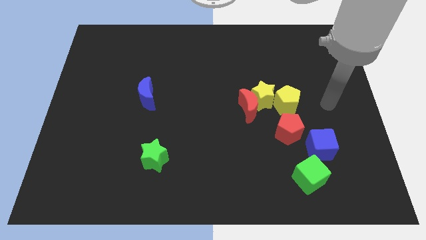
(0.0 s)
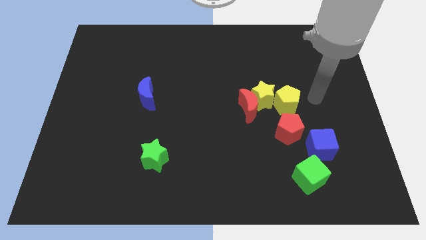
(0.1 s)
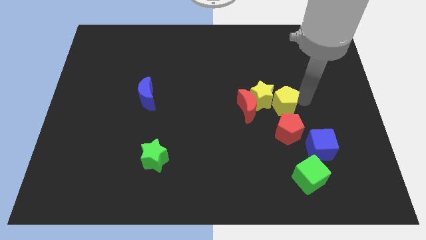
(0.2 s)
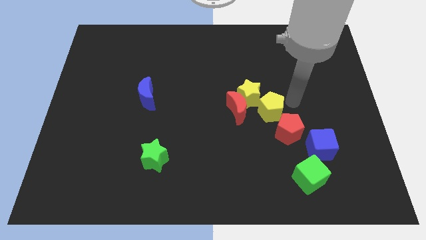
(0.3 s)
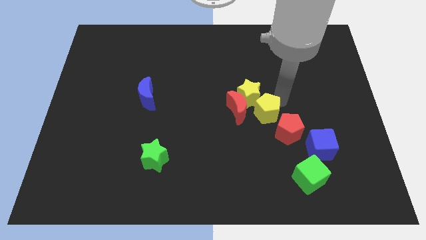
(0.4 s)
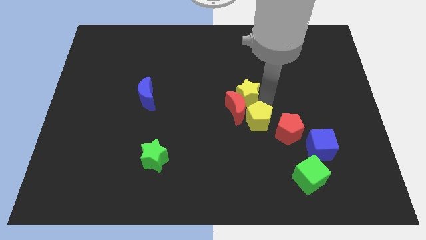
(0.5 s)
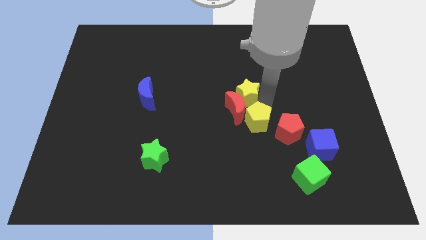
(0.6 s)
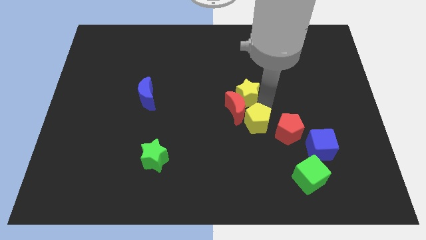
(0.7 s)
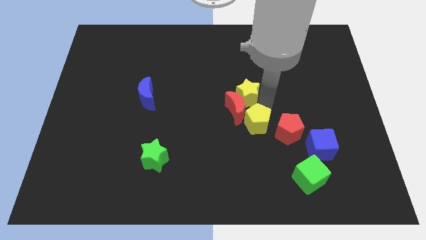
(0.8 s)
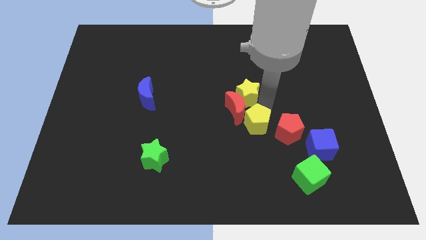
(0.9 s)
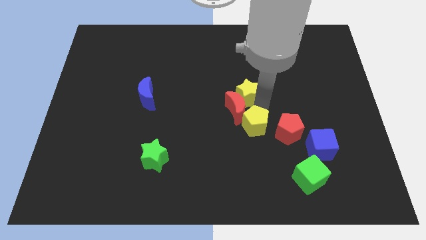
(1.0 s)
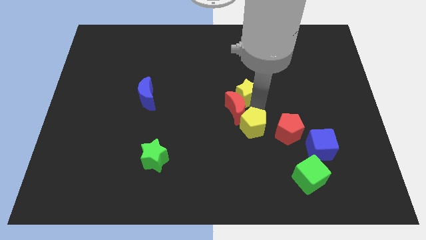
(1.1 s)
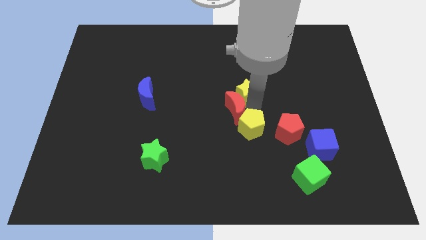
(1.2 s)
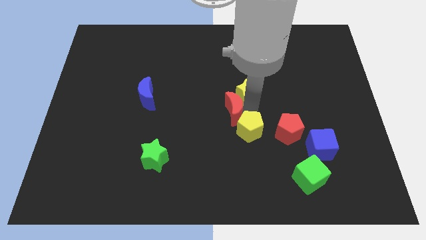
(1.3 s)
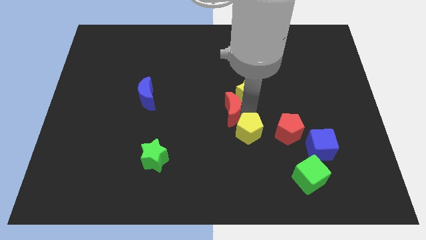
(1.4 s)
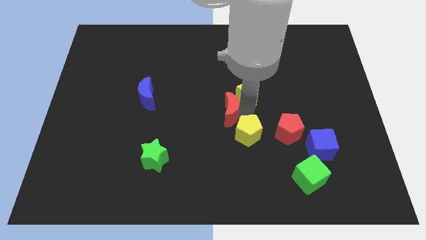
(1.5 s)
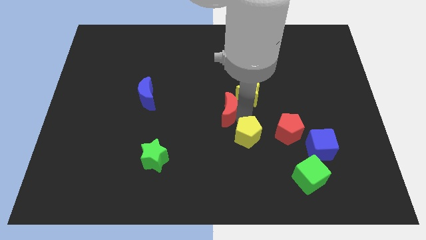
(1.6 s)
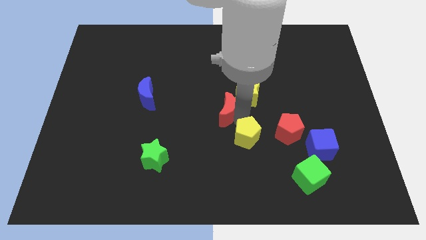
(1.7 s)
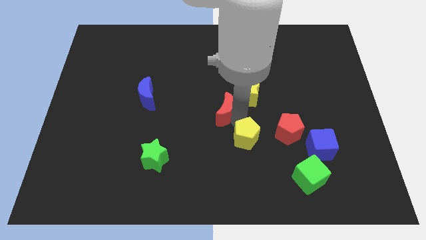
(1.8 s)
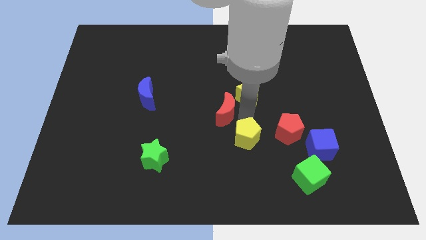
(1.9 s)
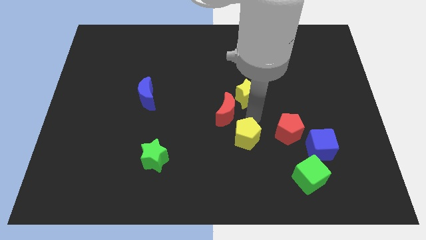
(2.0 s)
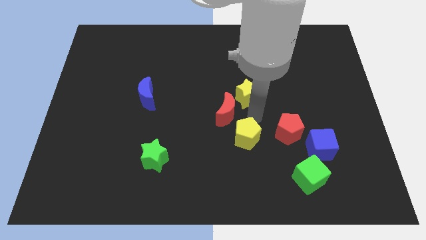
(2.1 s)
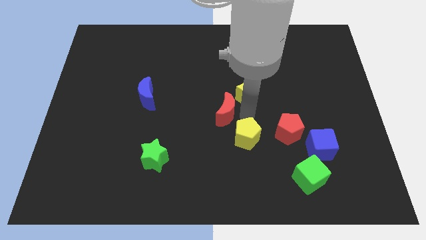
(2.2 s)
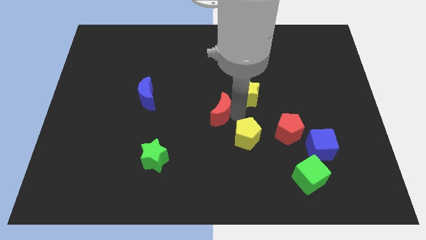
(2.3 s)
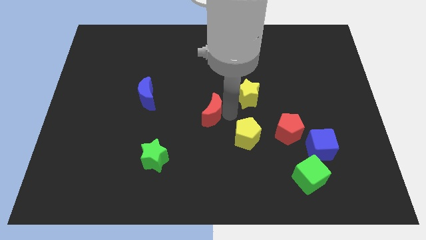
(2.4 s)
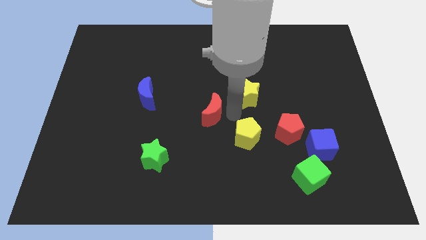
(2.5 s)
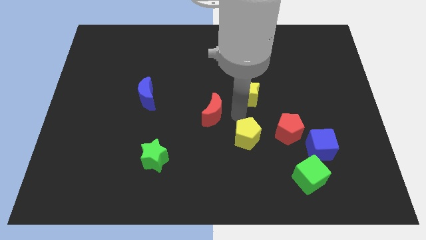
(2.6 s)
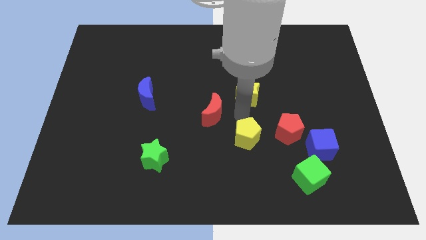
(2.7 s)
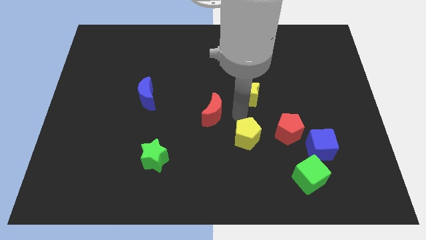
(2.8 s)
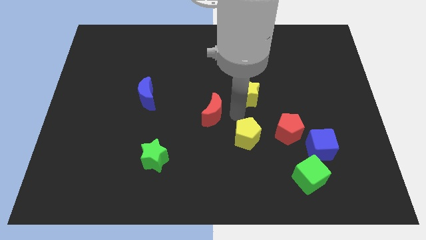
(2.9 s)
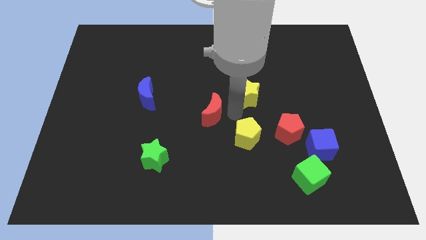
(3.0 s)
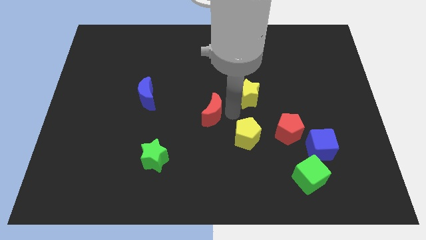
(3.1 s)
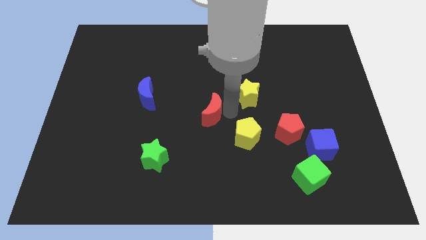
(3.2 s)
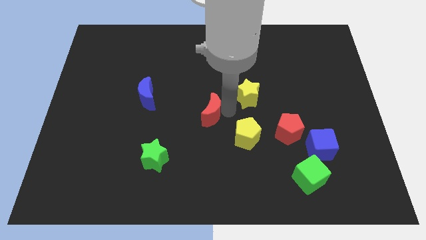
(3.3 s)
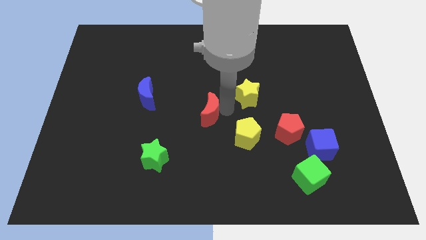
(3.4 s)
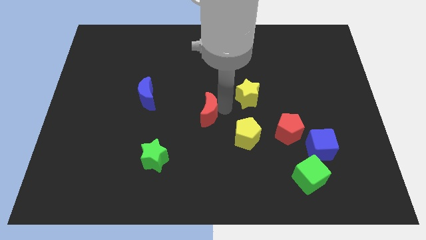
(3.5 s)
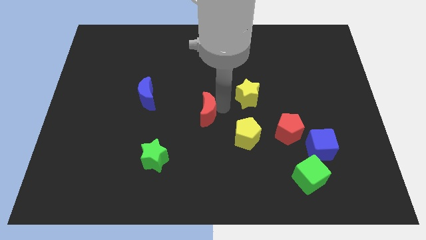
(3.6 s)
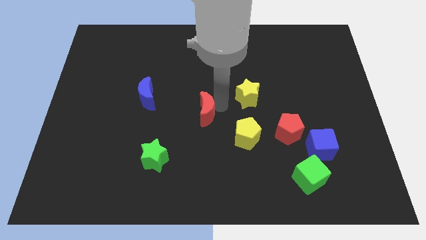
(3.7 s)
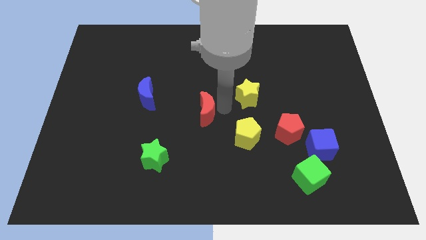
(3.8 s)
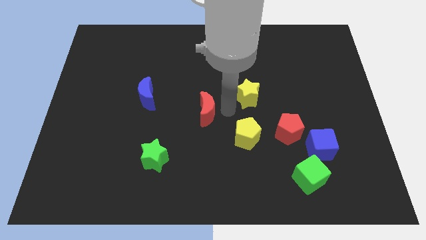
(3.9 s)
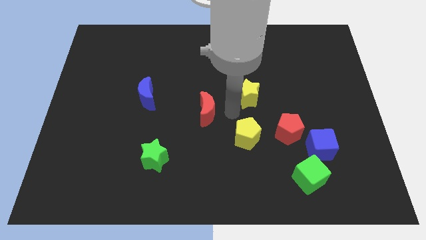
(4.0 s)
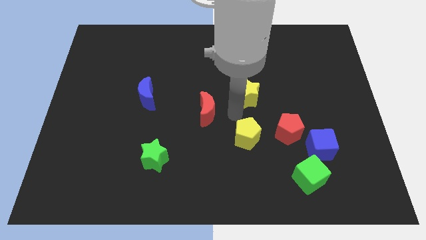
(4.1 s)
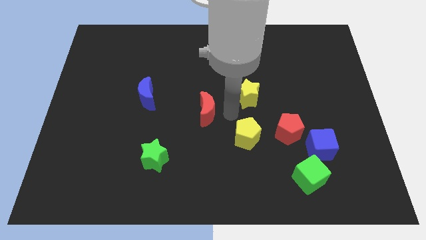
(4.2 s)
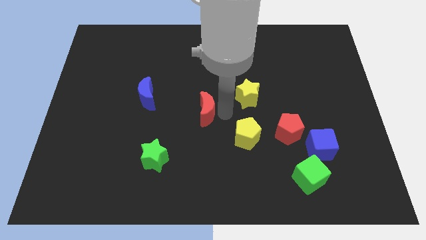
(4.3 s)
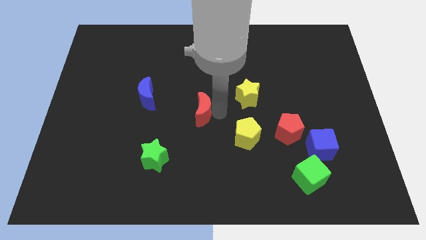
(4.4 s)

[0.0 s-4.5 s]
move the red moon away from the yellow star and yellow pentagon

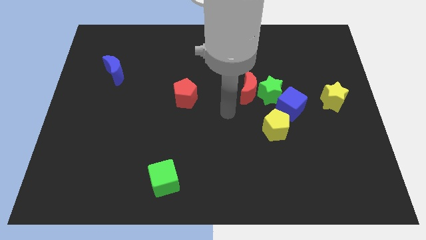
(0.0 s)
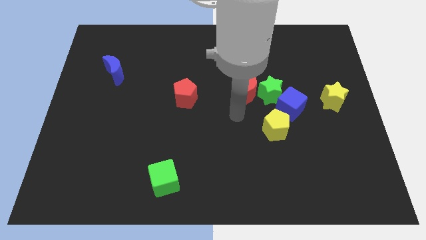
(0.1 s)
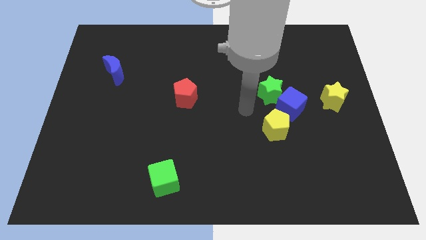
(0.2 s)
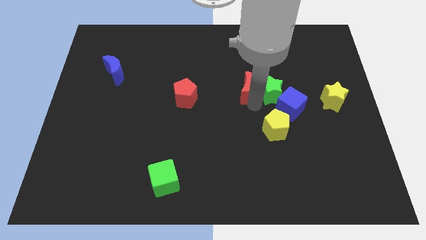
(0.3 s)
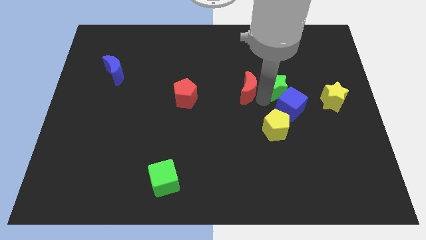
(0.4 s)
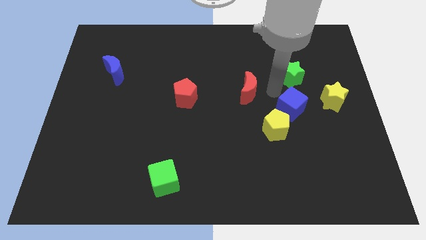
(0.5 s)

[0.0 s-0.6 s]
separate the red moon from the green star

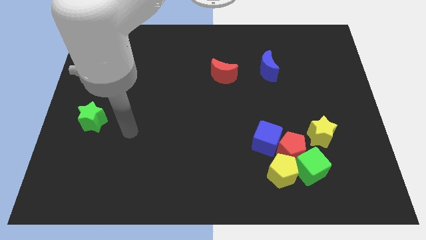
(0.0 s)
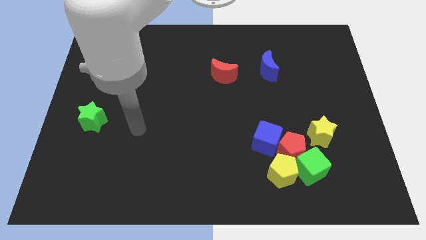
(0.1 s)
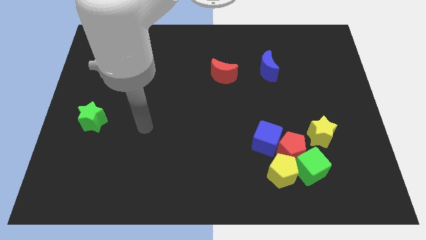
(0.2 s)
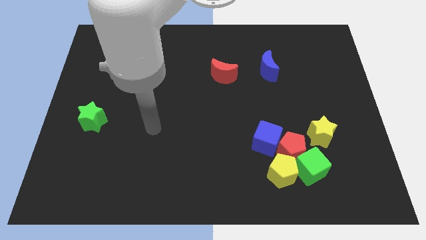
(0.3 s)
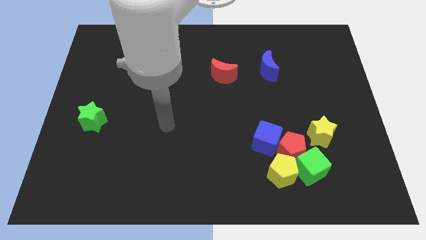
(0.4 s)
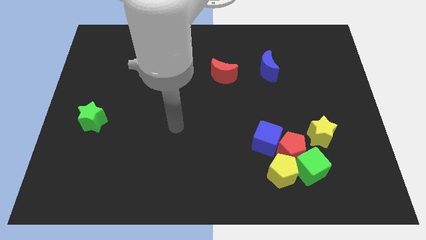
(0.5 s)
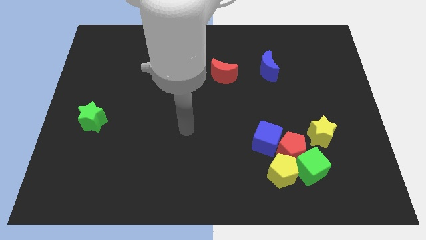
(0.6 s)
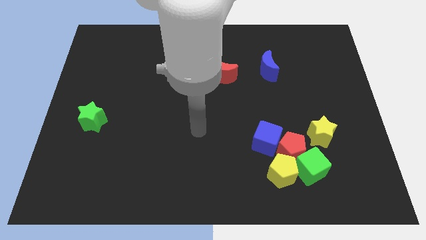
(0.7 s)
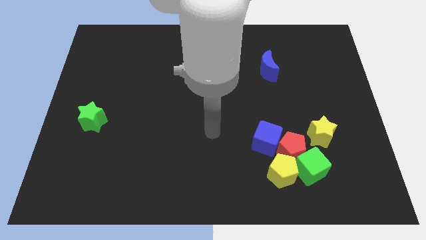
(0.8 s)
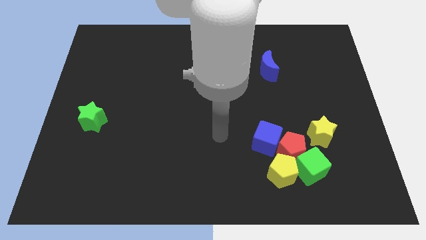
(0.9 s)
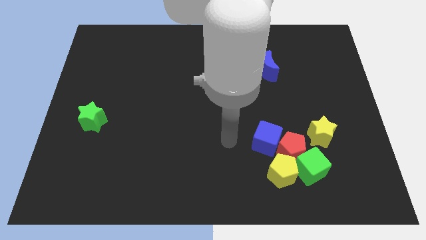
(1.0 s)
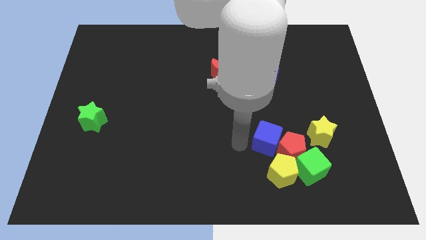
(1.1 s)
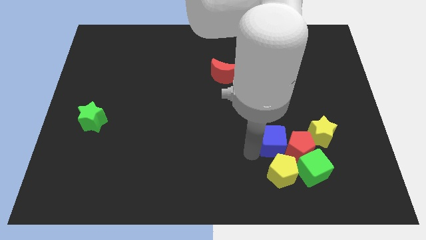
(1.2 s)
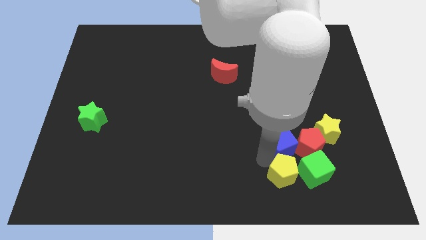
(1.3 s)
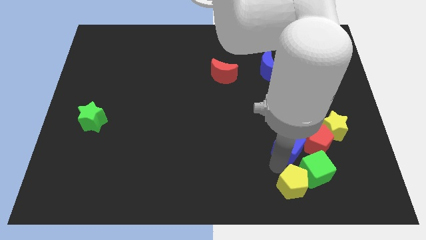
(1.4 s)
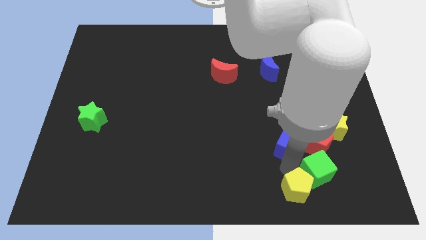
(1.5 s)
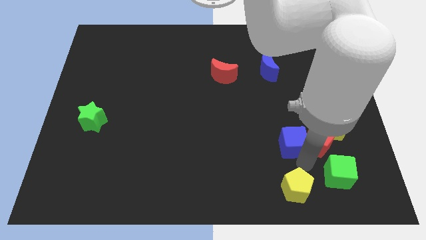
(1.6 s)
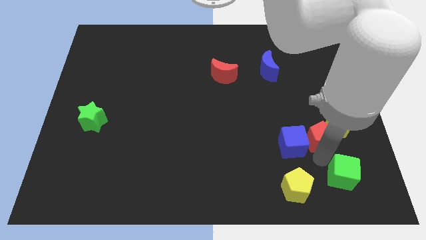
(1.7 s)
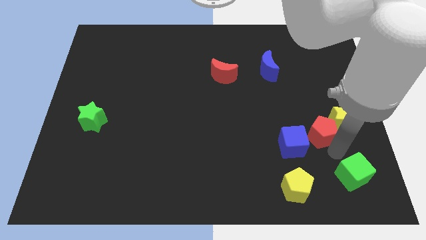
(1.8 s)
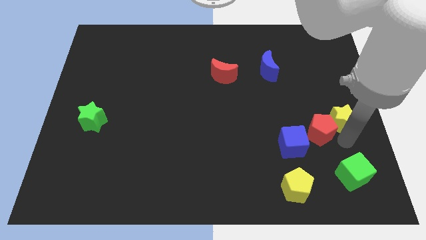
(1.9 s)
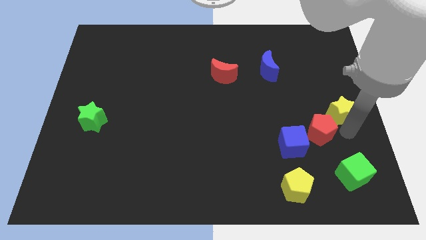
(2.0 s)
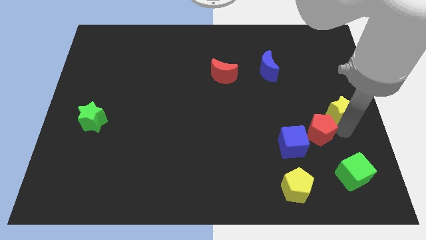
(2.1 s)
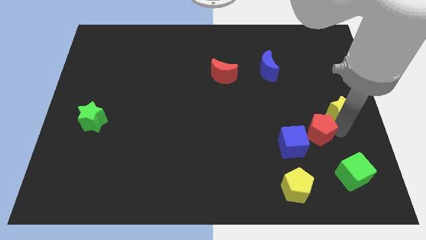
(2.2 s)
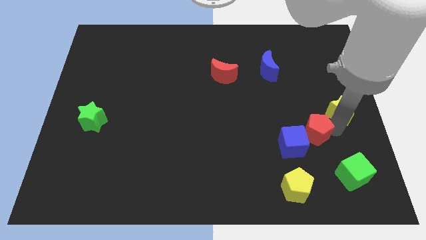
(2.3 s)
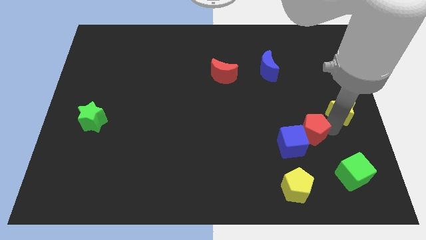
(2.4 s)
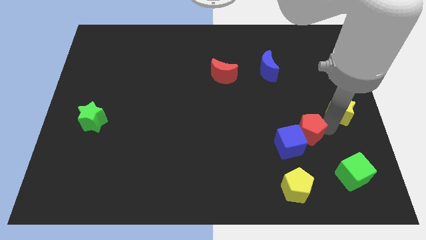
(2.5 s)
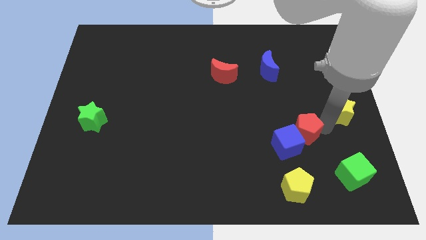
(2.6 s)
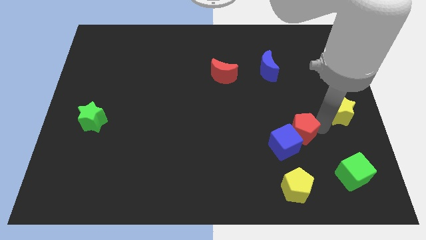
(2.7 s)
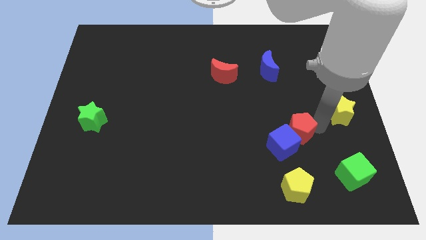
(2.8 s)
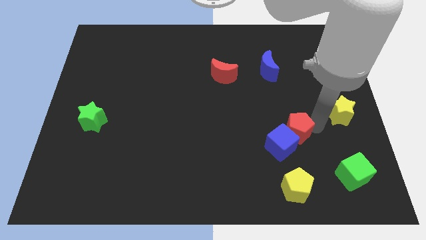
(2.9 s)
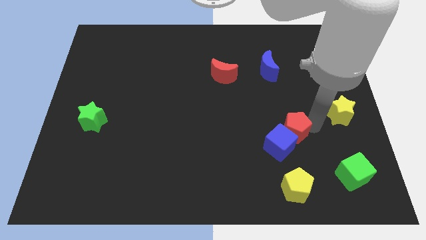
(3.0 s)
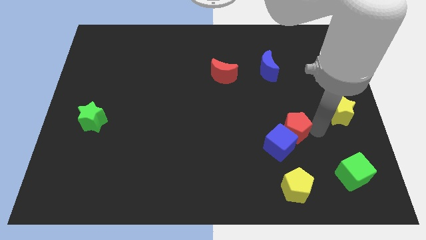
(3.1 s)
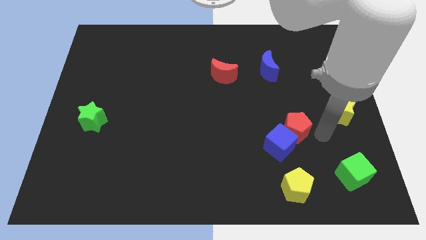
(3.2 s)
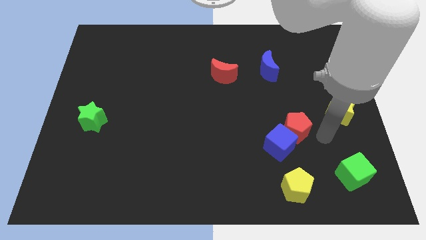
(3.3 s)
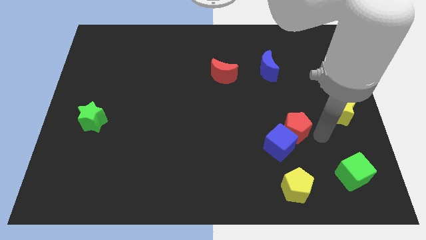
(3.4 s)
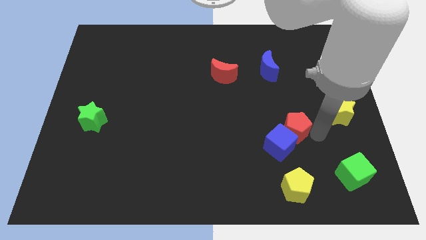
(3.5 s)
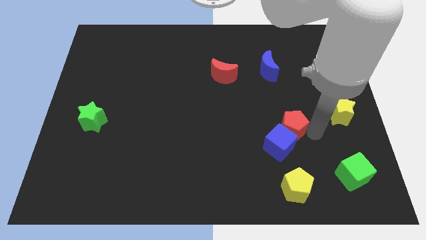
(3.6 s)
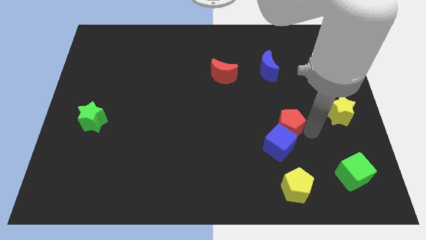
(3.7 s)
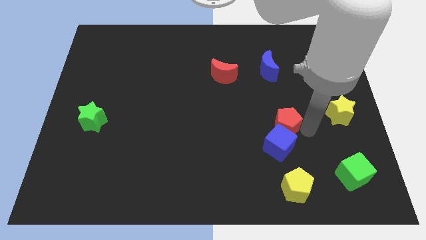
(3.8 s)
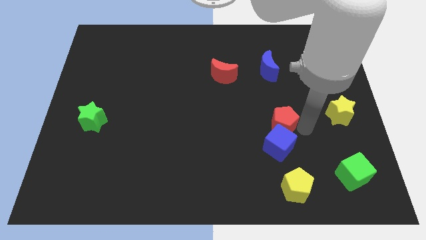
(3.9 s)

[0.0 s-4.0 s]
pull the red pentagon apart from the group

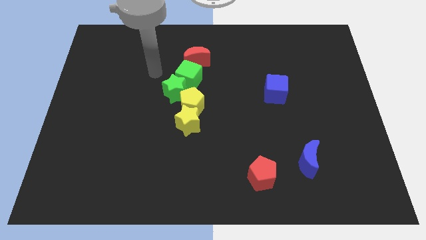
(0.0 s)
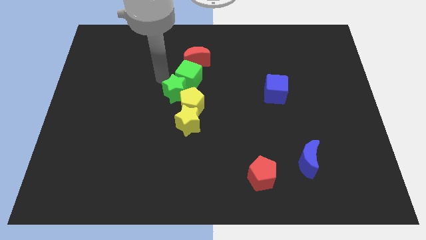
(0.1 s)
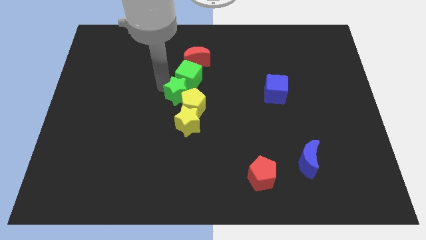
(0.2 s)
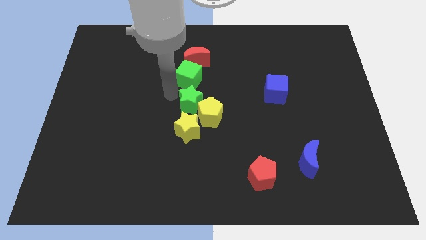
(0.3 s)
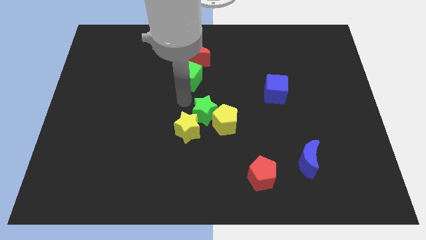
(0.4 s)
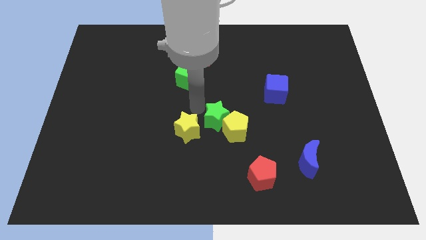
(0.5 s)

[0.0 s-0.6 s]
move the yellow pentagon away from the yellow star, green star, and green cube
